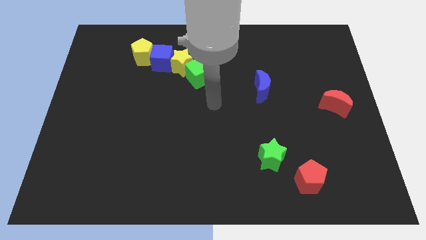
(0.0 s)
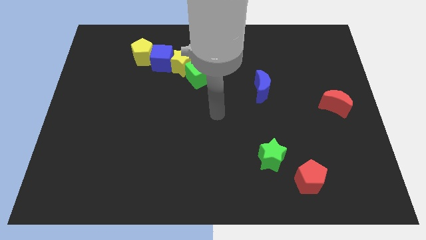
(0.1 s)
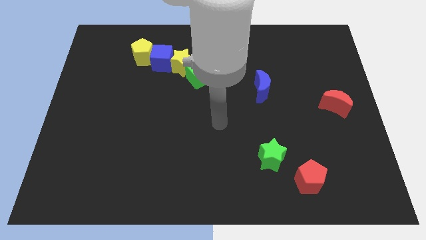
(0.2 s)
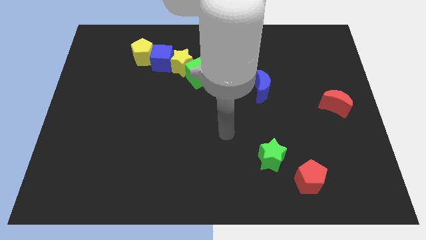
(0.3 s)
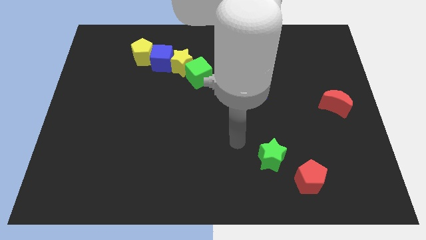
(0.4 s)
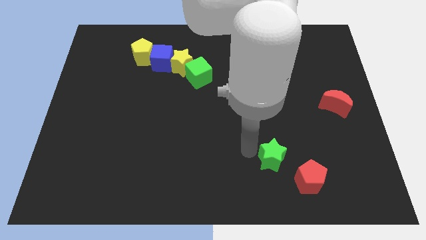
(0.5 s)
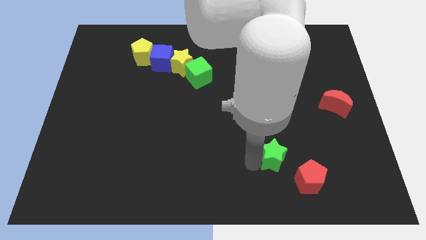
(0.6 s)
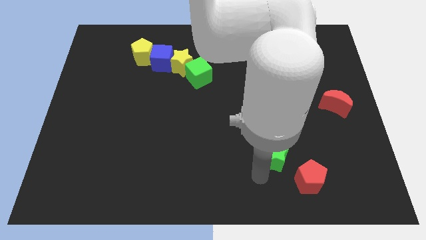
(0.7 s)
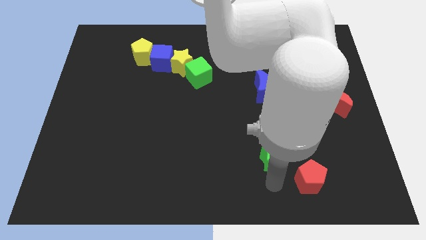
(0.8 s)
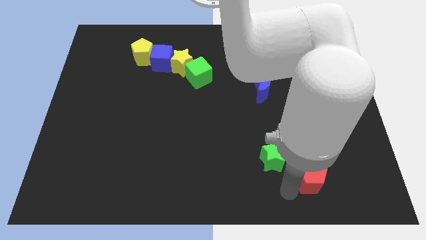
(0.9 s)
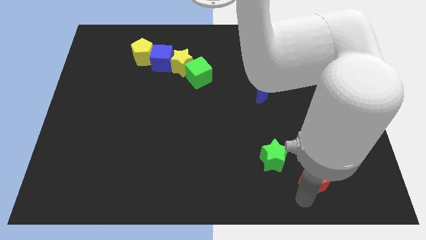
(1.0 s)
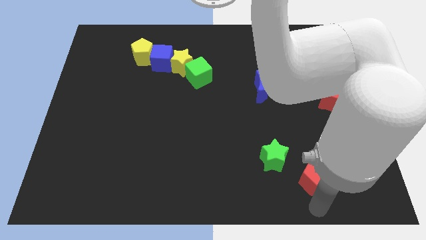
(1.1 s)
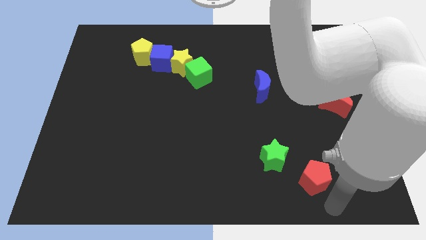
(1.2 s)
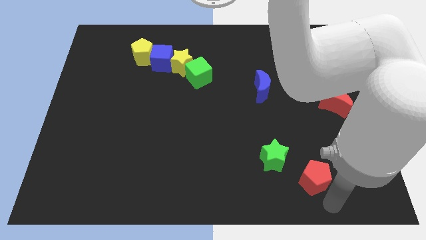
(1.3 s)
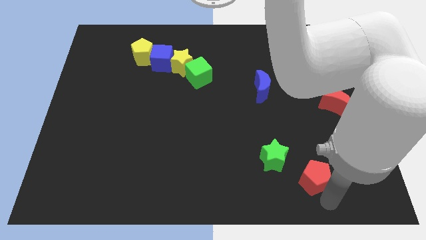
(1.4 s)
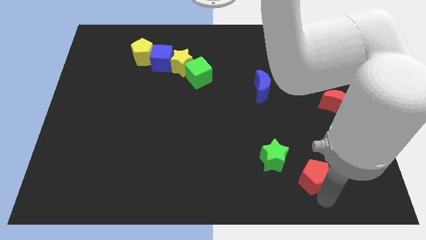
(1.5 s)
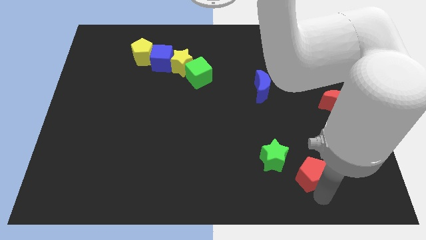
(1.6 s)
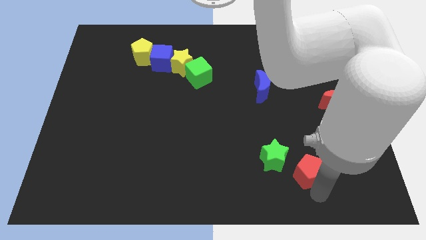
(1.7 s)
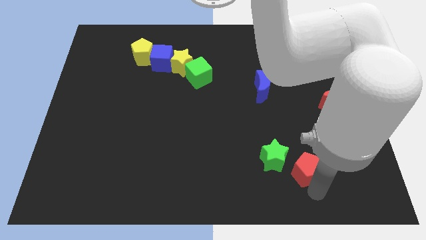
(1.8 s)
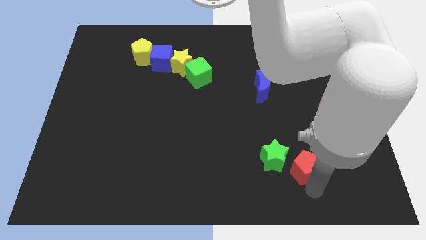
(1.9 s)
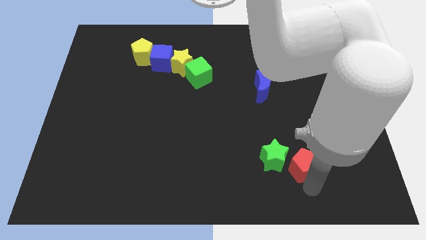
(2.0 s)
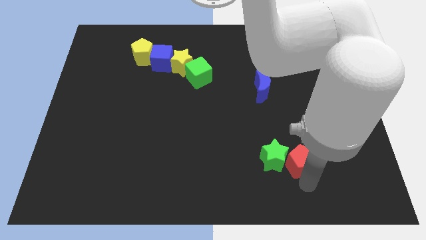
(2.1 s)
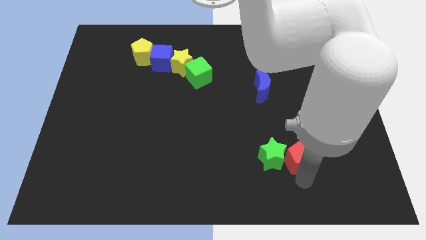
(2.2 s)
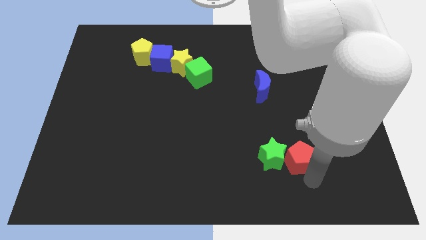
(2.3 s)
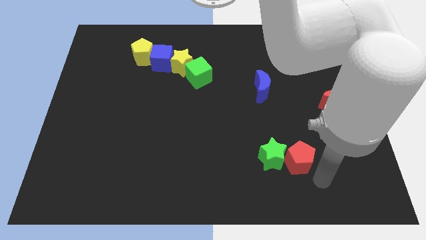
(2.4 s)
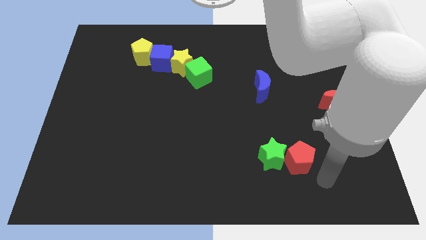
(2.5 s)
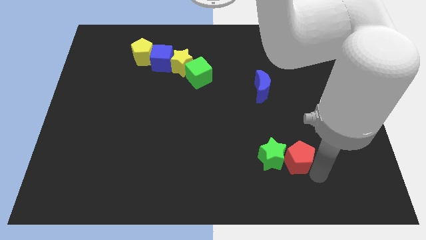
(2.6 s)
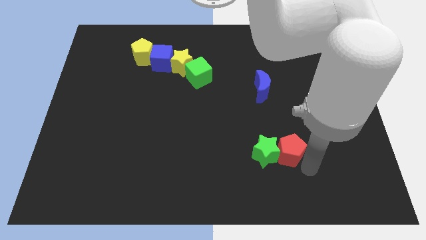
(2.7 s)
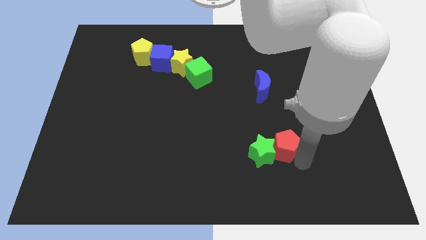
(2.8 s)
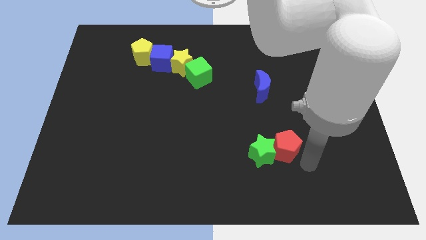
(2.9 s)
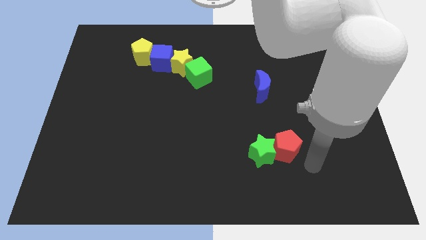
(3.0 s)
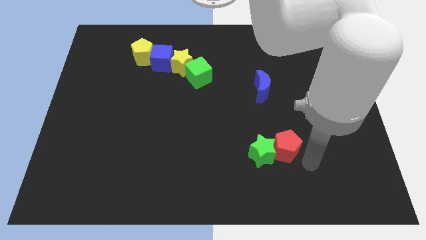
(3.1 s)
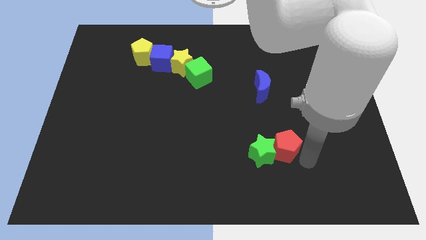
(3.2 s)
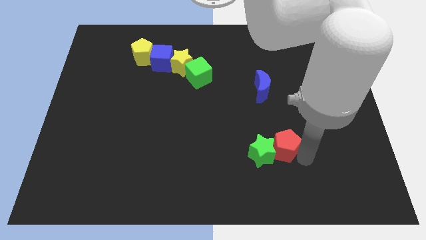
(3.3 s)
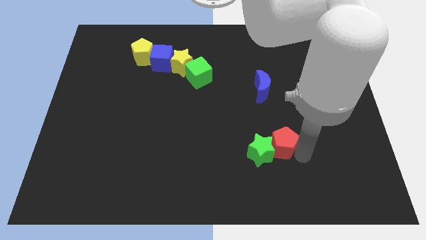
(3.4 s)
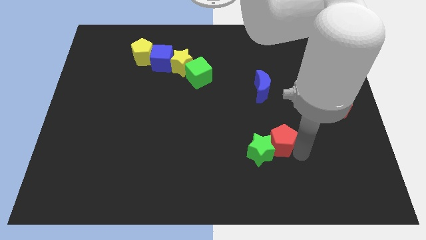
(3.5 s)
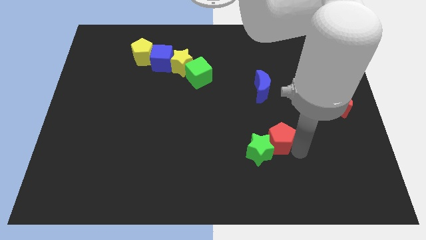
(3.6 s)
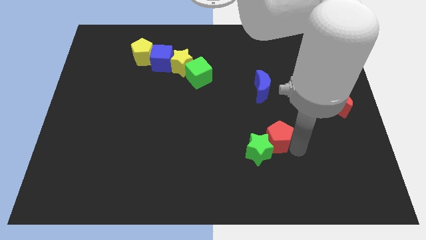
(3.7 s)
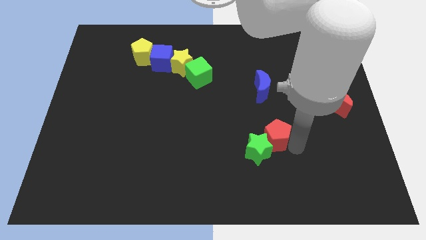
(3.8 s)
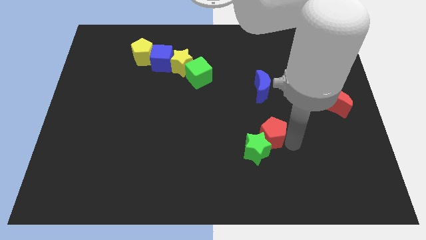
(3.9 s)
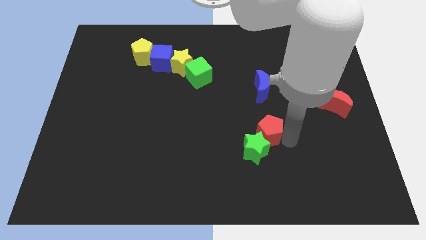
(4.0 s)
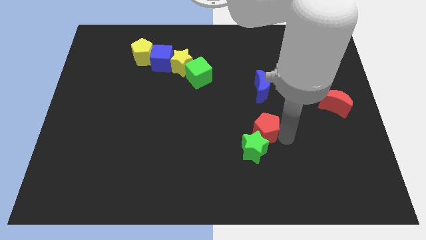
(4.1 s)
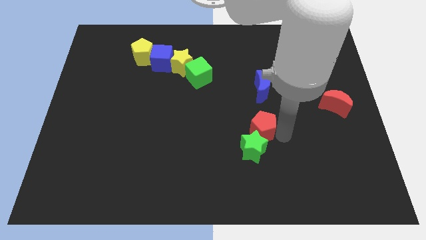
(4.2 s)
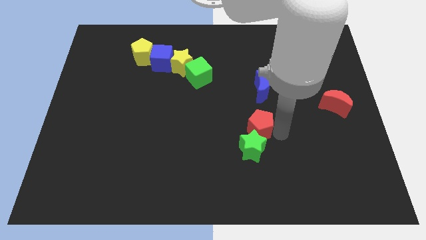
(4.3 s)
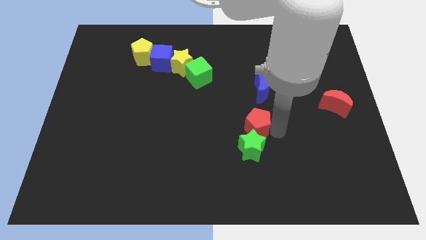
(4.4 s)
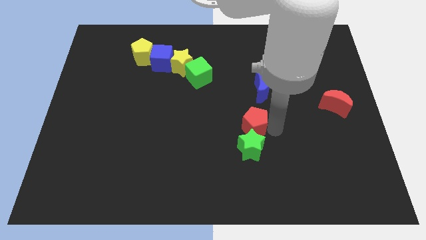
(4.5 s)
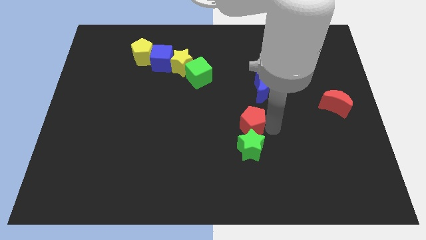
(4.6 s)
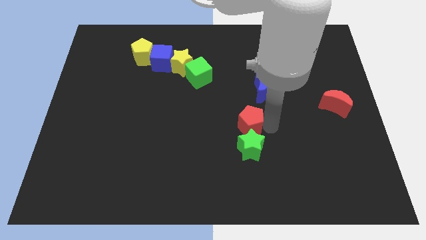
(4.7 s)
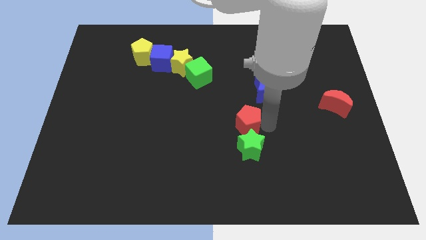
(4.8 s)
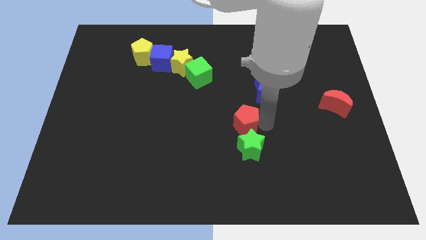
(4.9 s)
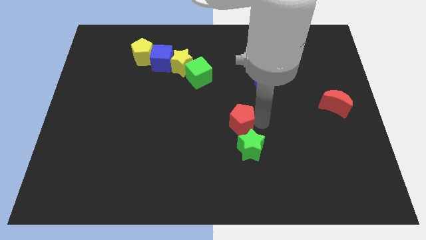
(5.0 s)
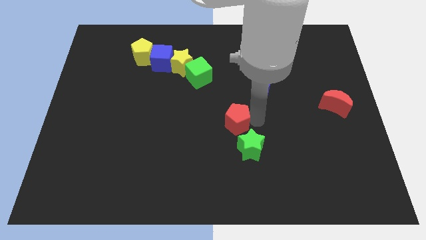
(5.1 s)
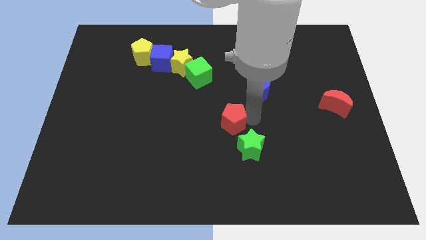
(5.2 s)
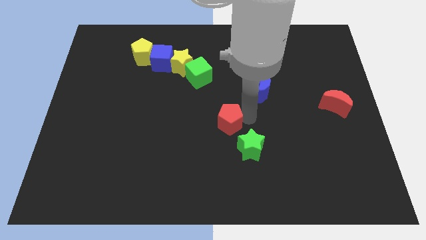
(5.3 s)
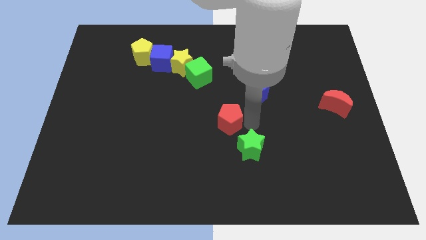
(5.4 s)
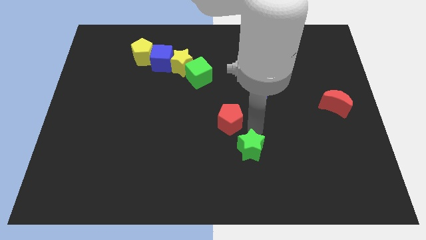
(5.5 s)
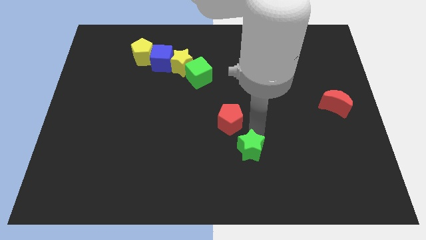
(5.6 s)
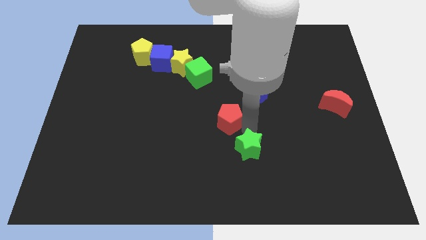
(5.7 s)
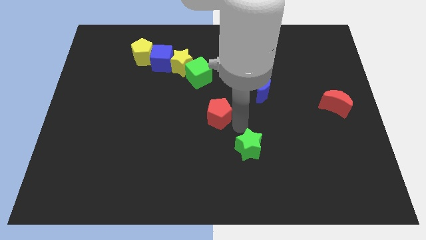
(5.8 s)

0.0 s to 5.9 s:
slide the red pentagon below the green cube

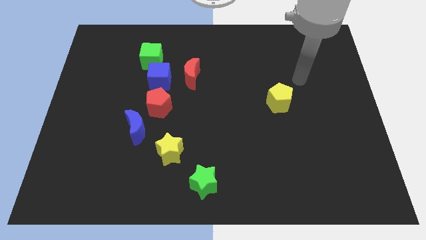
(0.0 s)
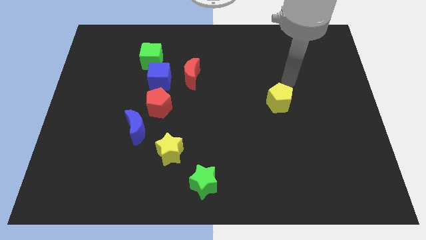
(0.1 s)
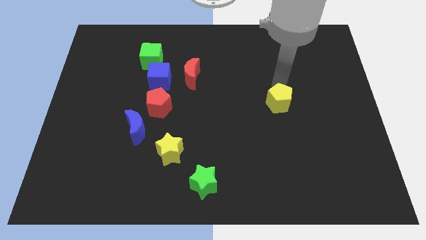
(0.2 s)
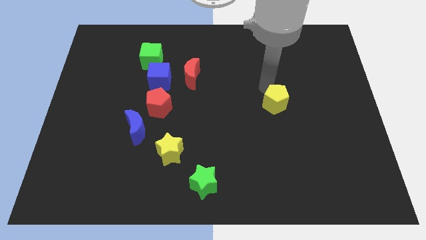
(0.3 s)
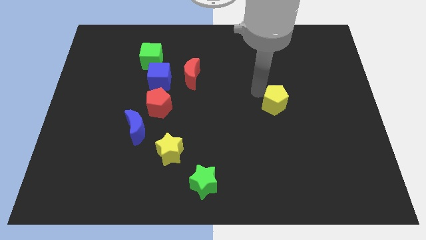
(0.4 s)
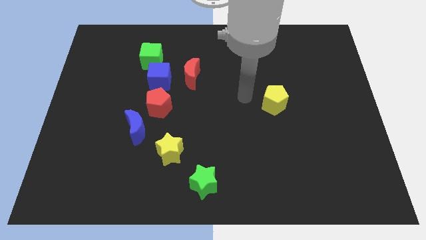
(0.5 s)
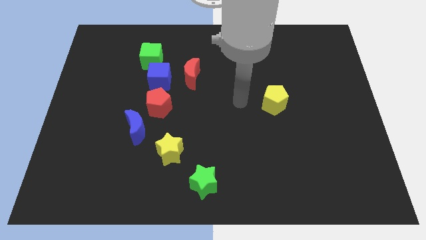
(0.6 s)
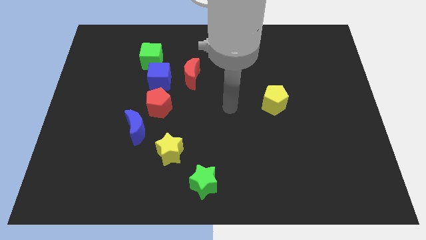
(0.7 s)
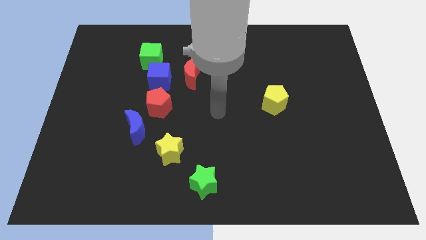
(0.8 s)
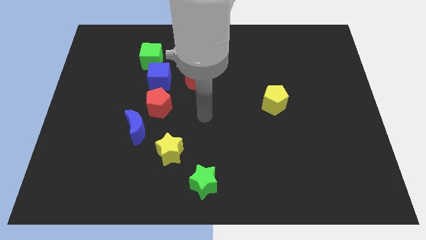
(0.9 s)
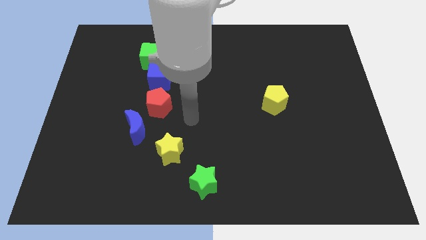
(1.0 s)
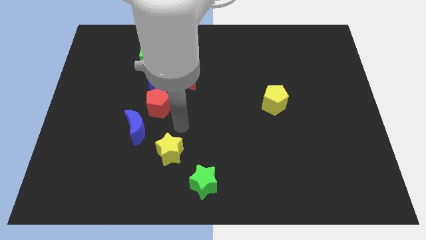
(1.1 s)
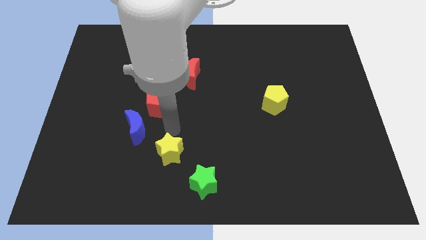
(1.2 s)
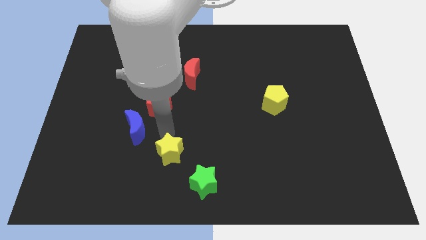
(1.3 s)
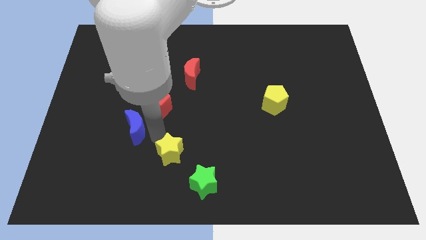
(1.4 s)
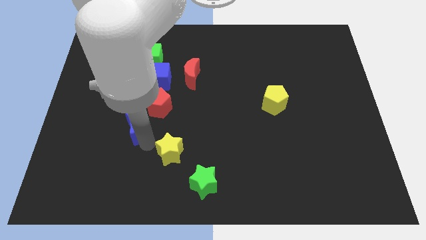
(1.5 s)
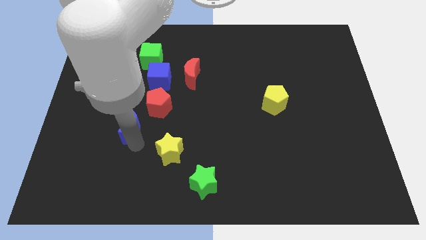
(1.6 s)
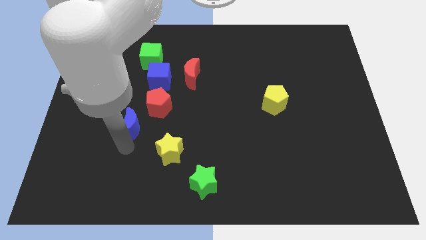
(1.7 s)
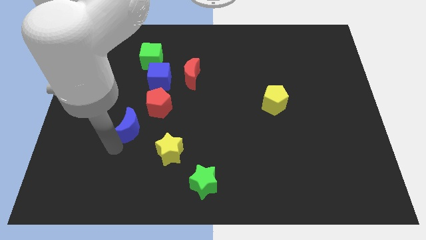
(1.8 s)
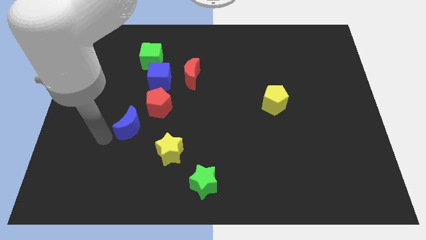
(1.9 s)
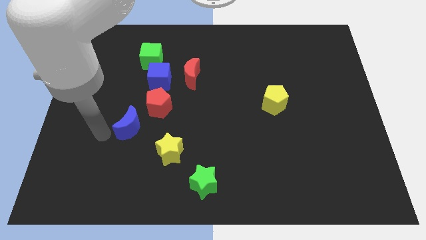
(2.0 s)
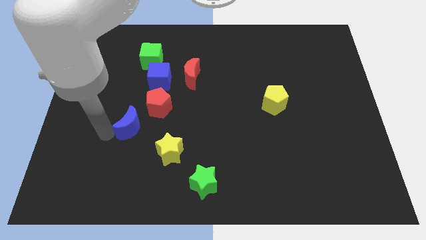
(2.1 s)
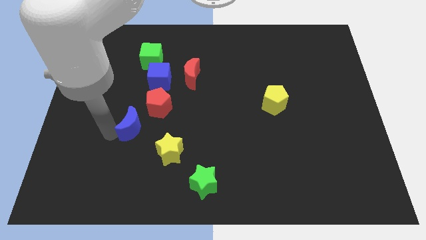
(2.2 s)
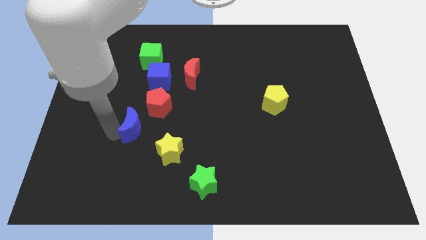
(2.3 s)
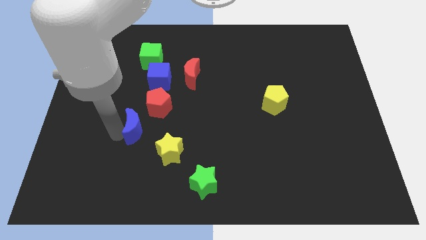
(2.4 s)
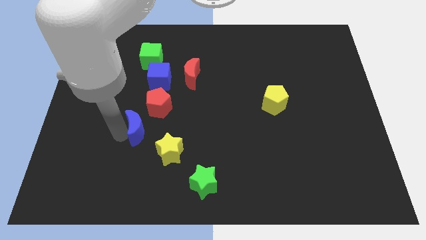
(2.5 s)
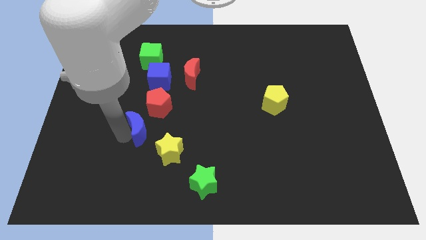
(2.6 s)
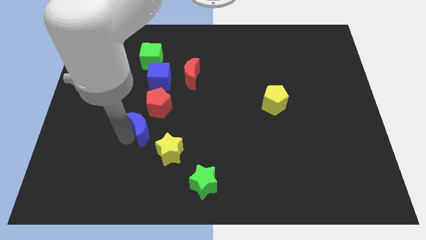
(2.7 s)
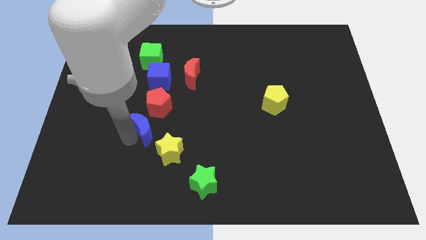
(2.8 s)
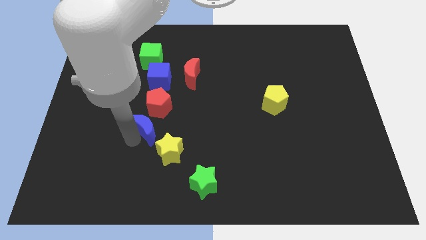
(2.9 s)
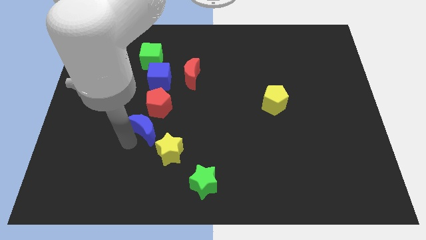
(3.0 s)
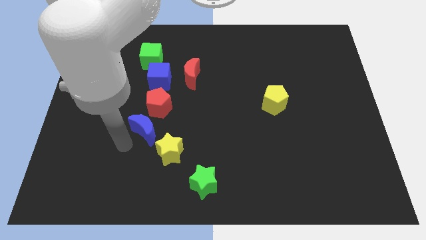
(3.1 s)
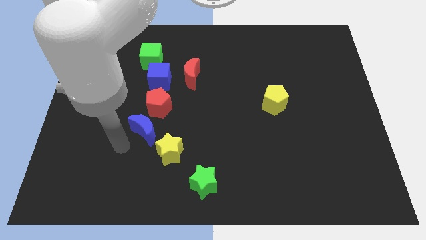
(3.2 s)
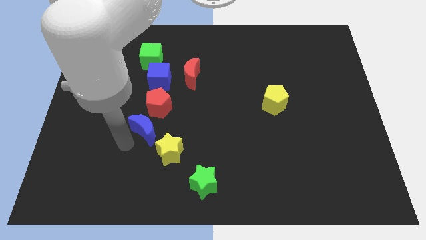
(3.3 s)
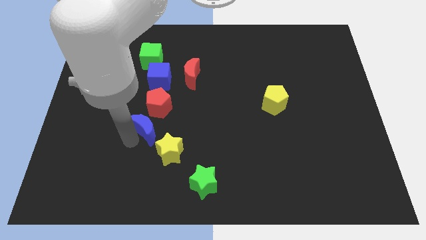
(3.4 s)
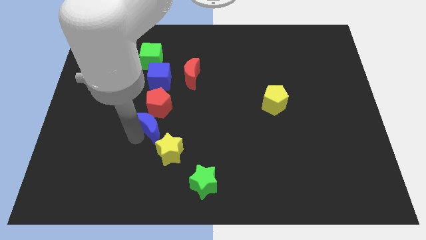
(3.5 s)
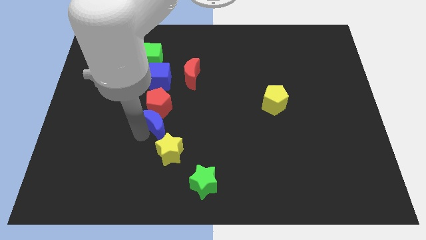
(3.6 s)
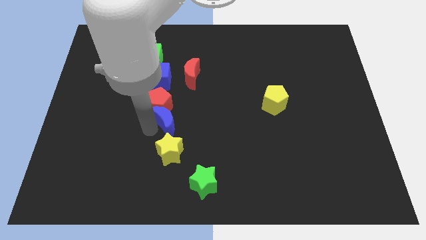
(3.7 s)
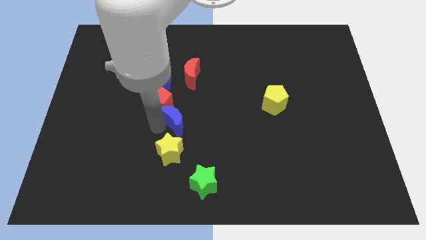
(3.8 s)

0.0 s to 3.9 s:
slide the blue moon to the bottom of the red moon
